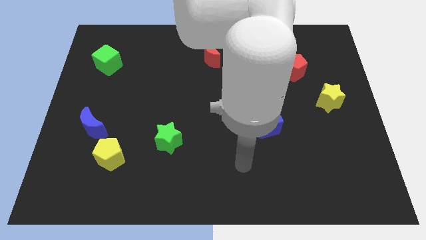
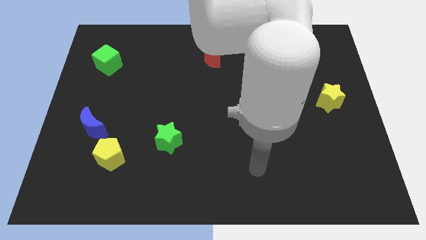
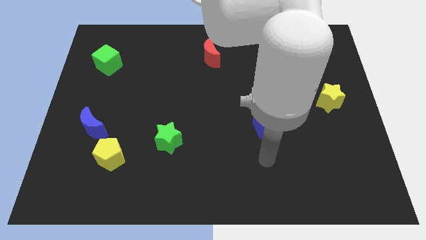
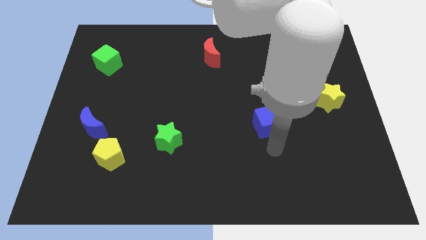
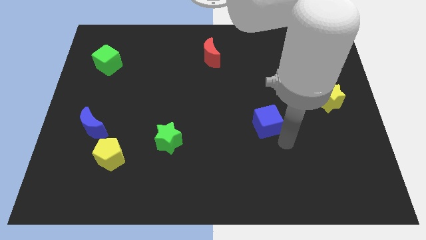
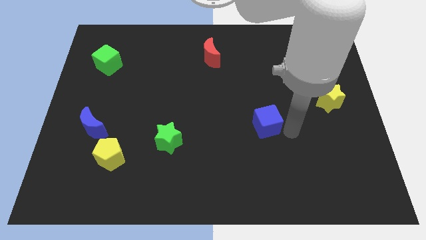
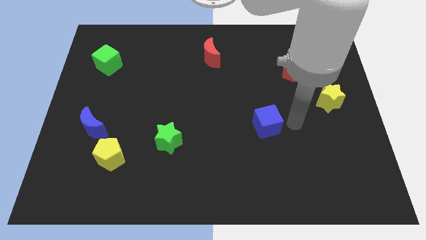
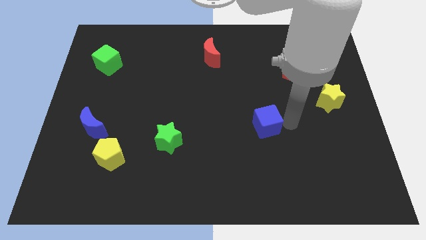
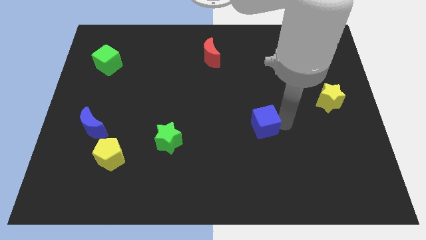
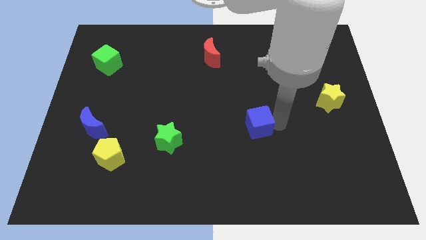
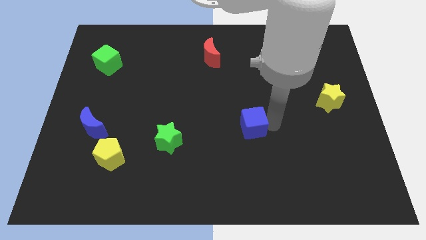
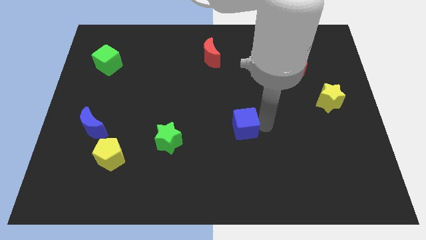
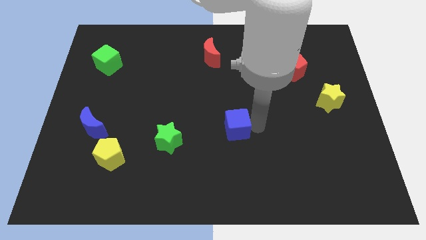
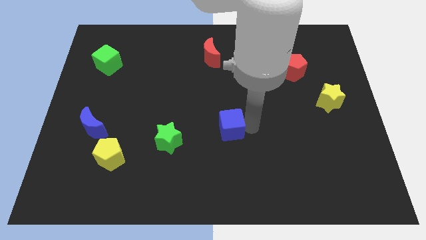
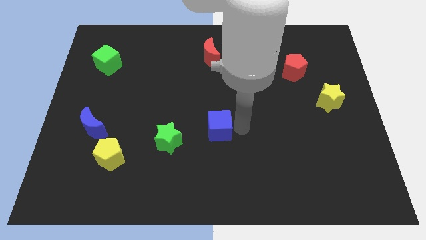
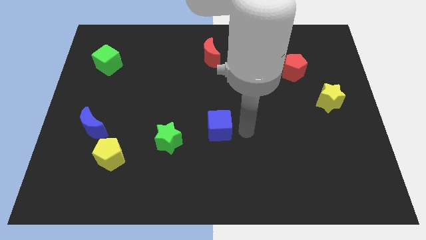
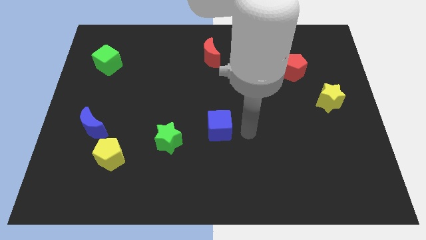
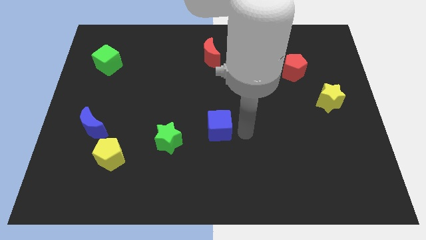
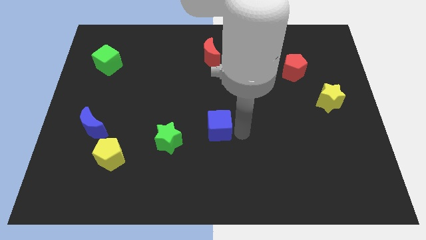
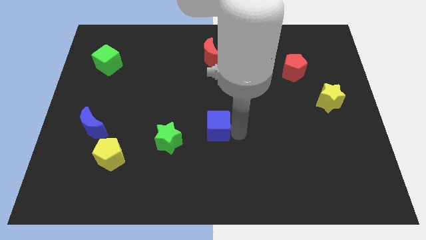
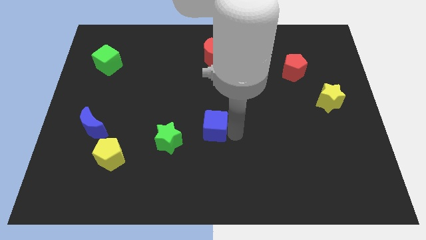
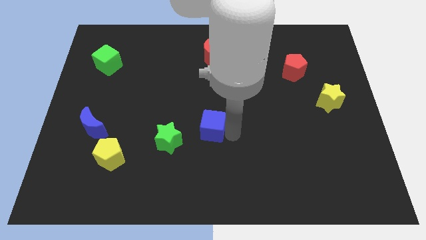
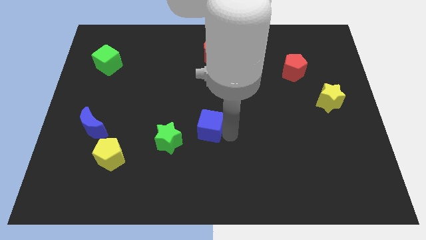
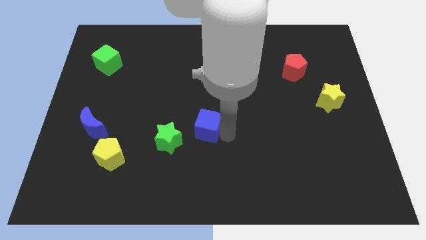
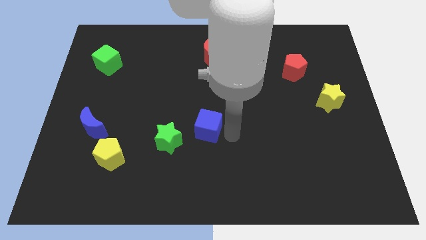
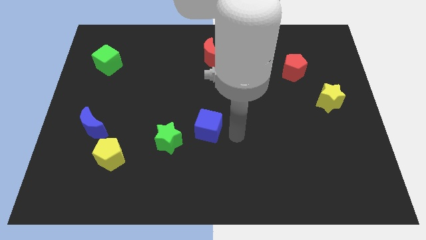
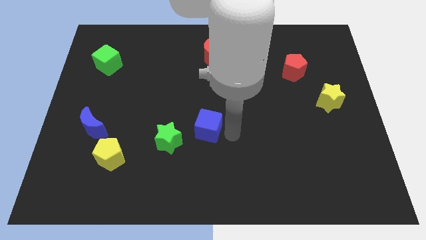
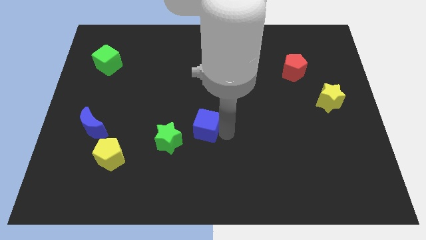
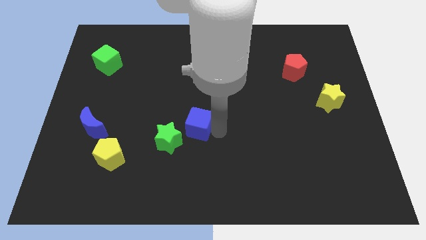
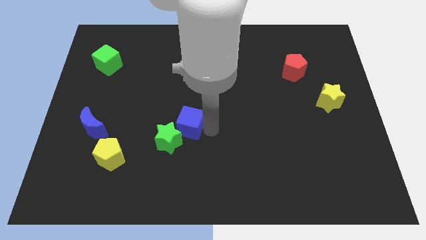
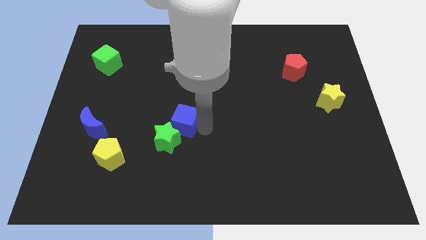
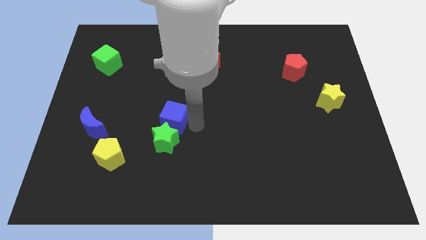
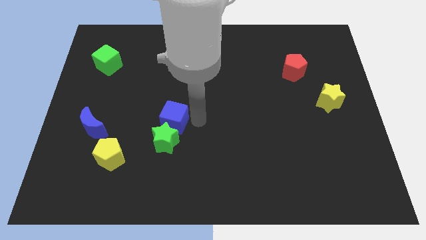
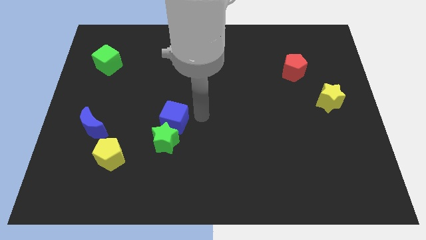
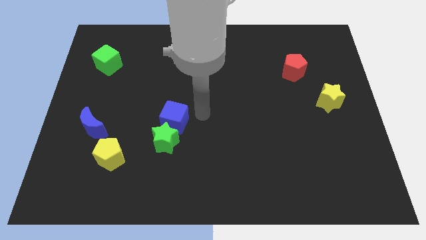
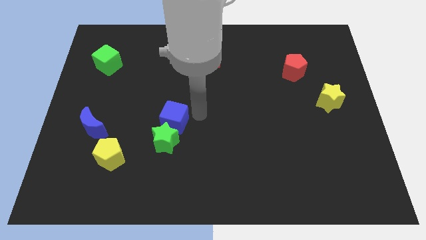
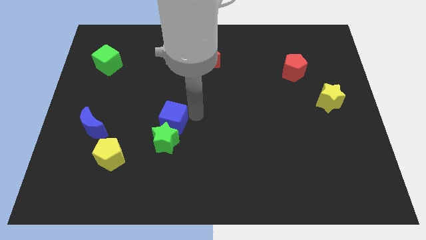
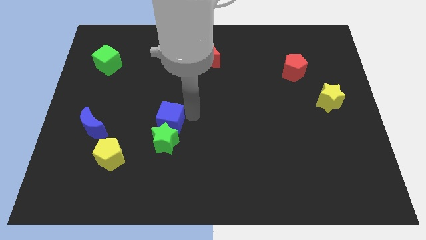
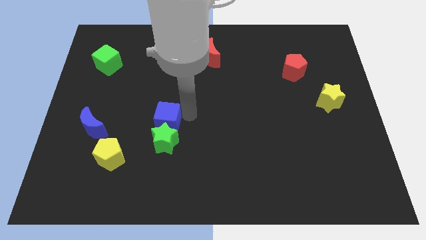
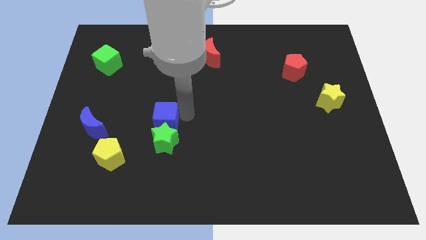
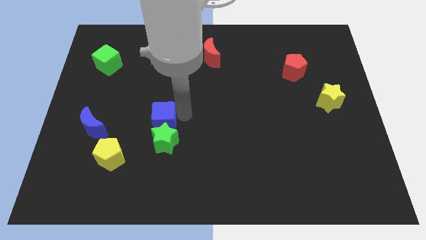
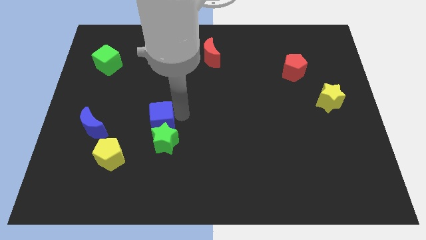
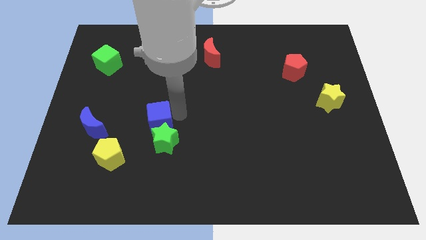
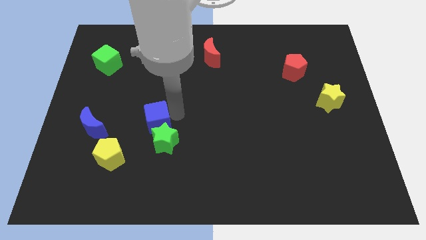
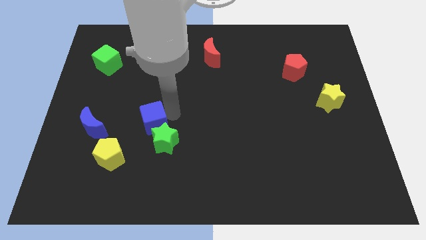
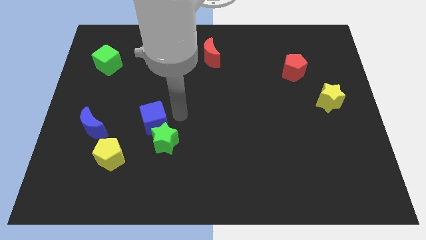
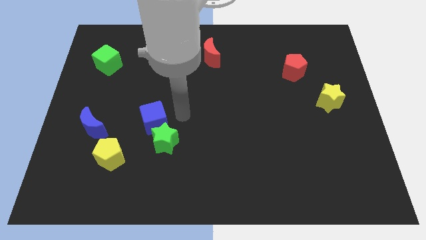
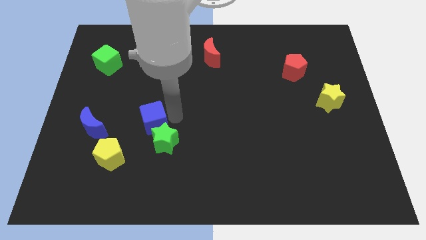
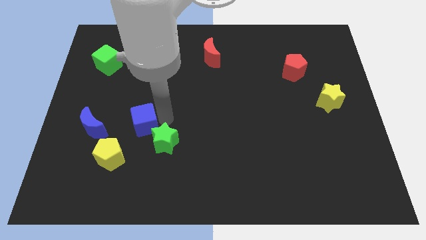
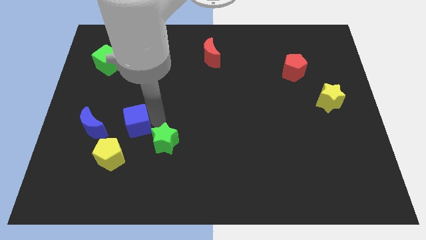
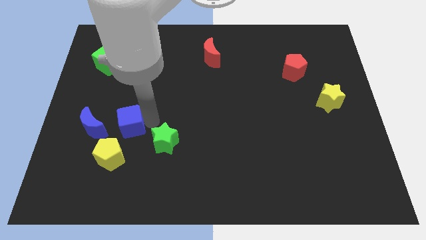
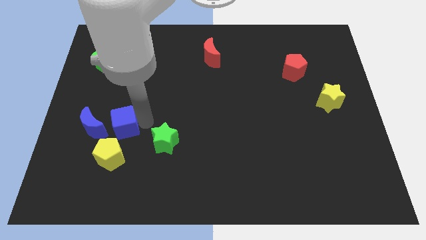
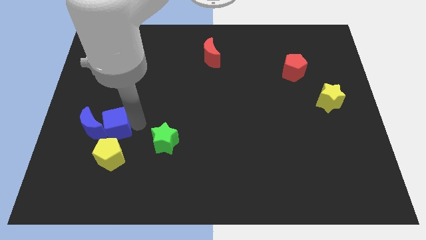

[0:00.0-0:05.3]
push the blue cube towards the blue moon

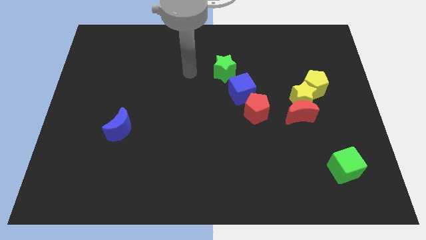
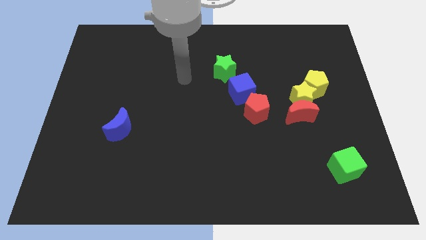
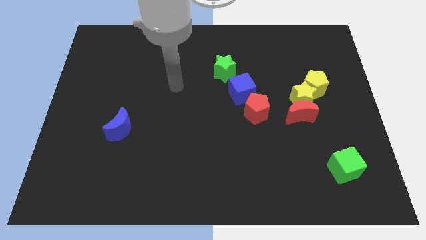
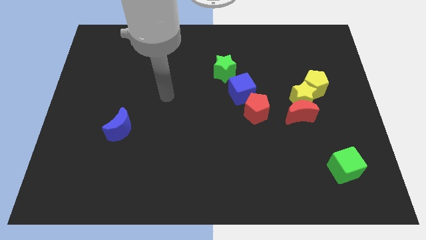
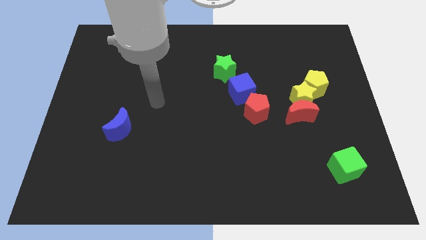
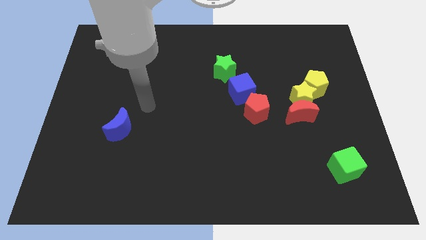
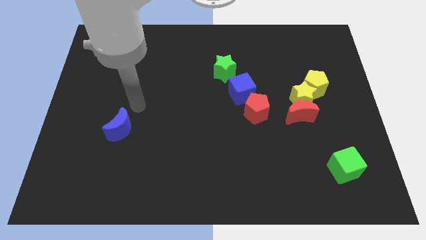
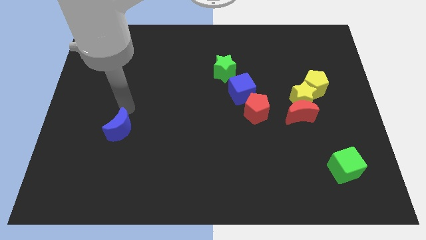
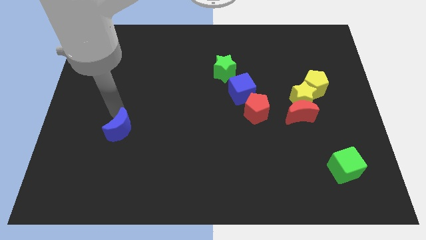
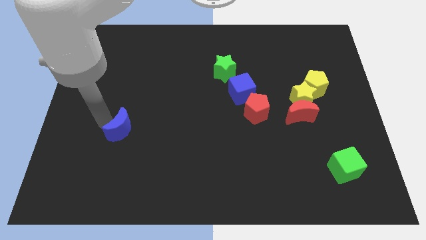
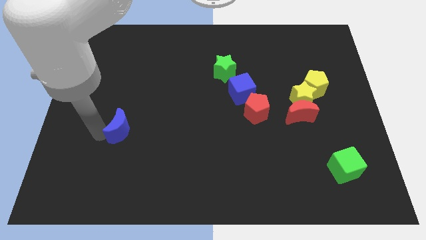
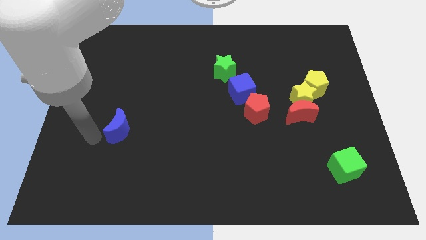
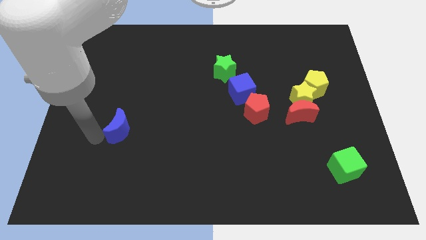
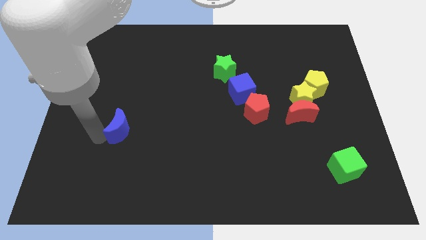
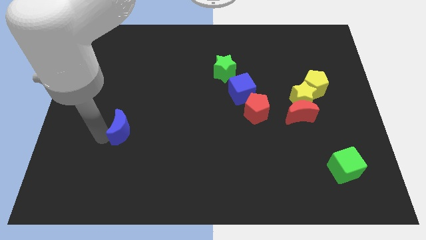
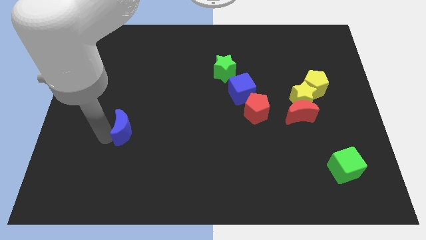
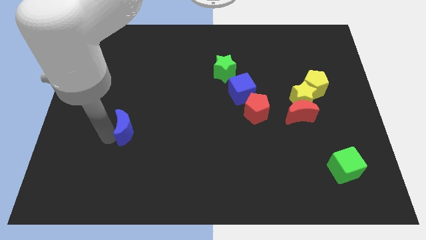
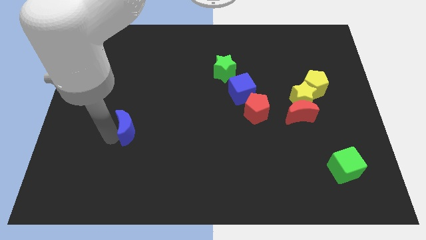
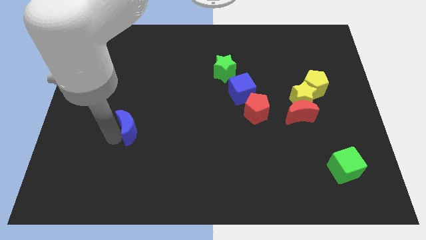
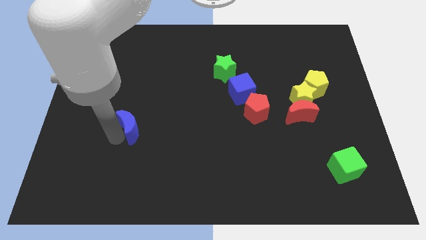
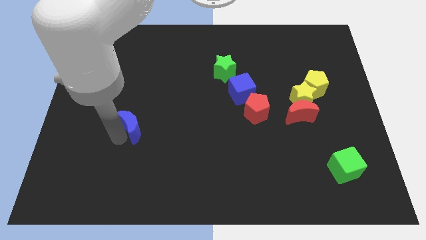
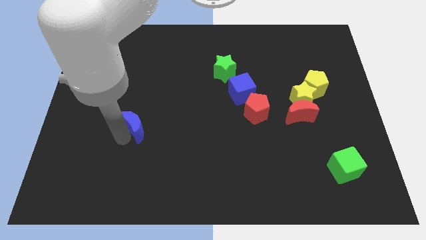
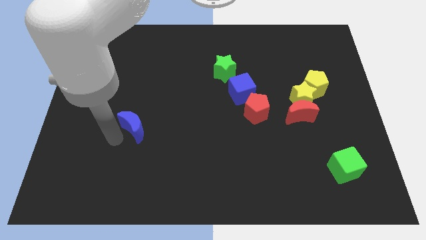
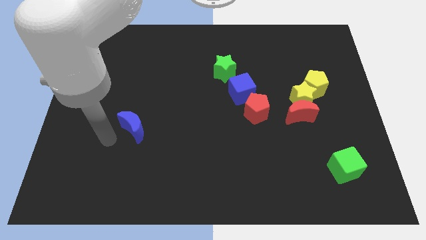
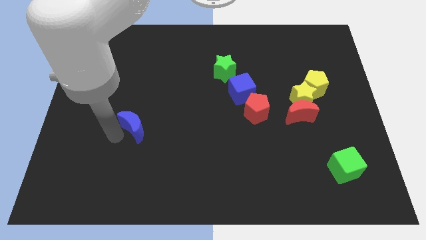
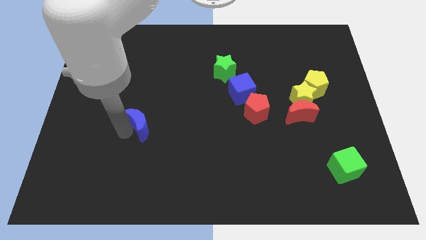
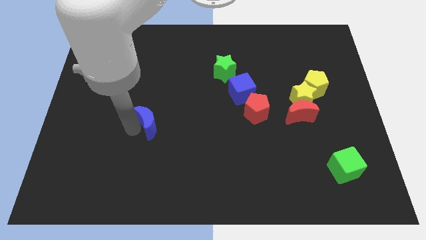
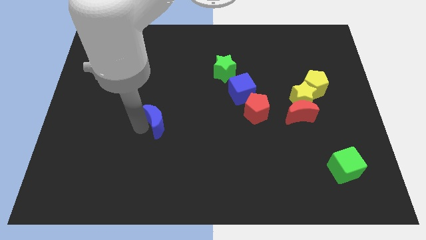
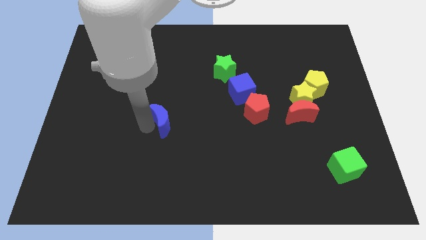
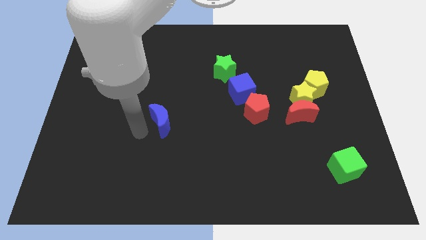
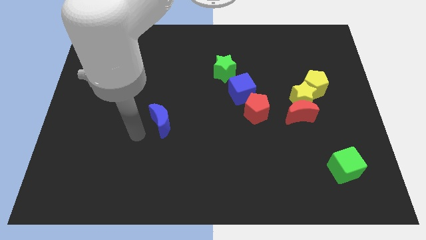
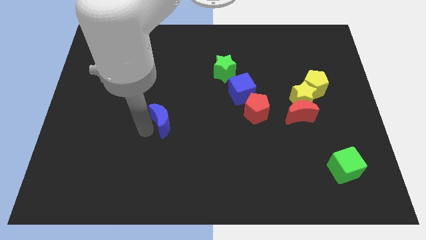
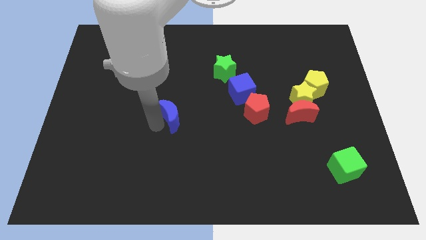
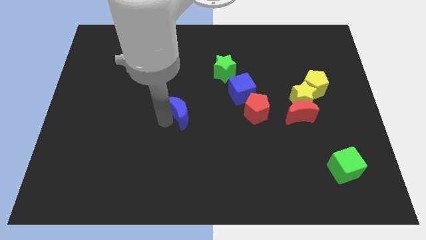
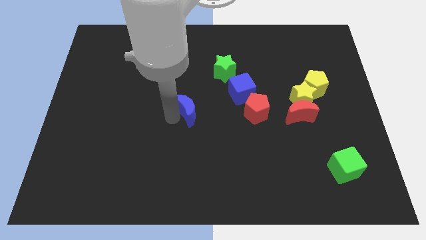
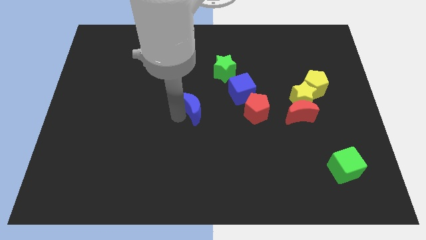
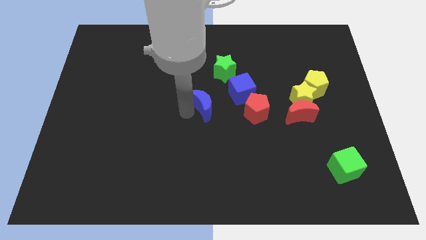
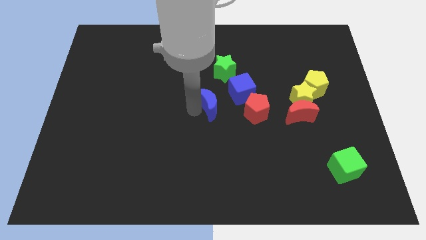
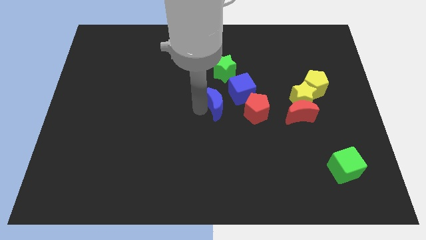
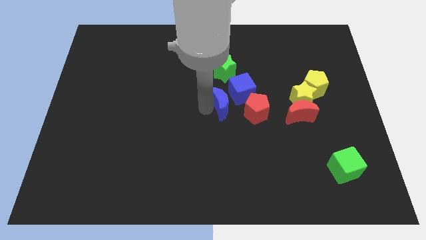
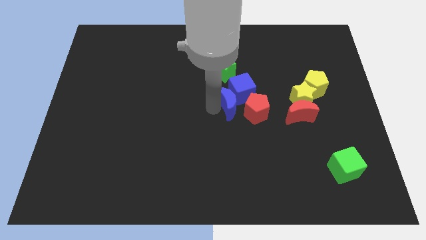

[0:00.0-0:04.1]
slide the blue moon towards the blue cube
